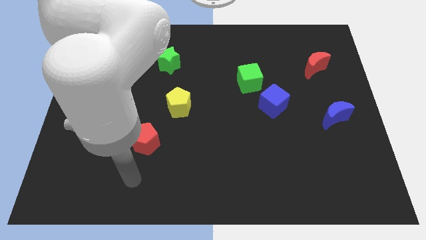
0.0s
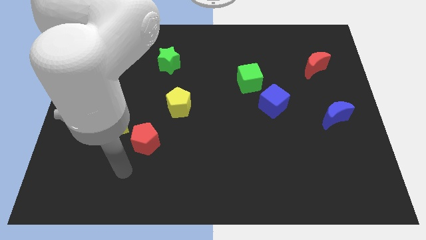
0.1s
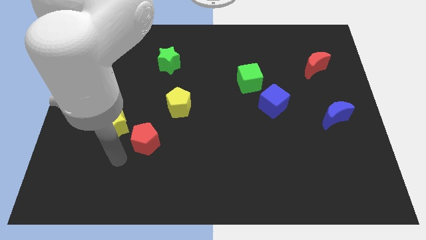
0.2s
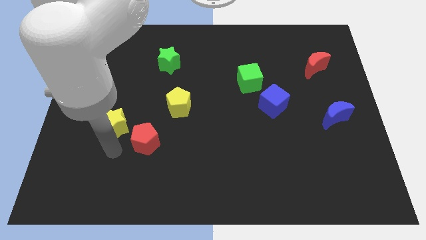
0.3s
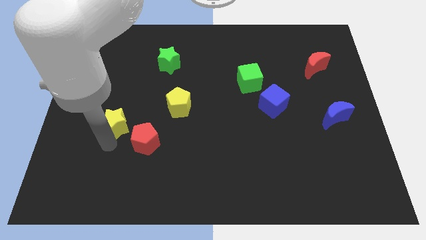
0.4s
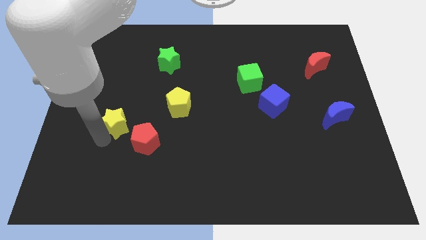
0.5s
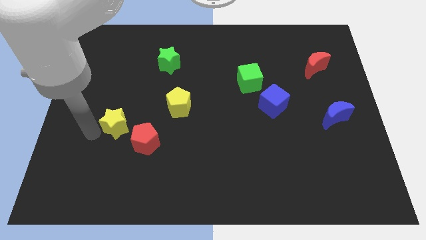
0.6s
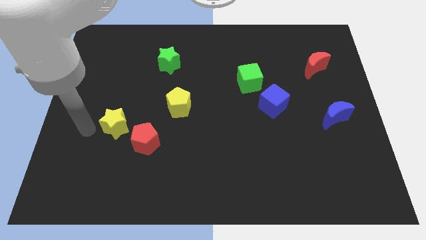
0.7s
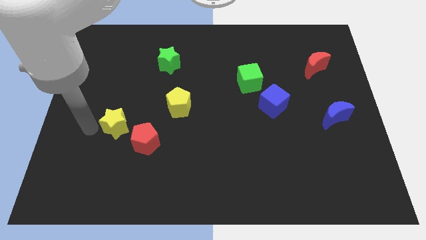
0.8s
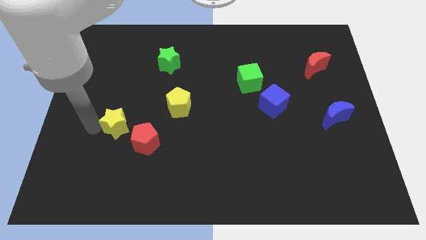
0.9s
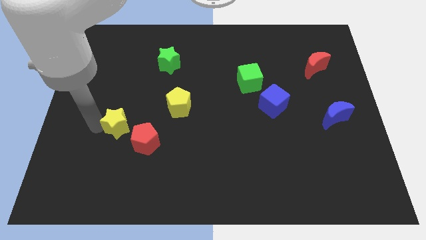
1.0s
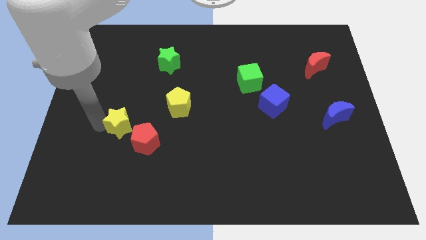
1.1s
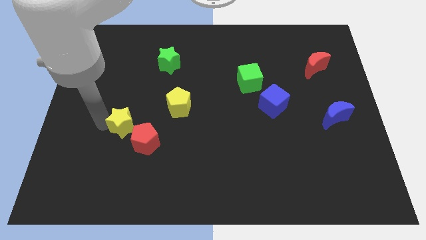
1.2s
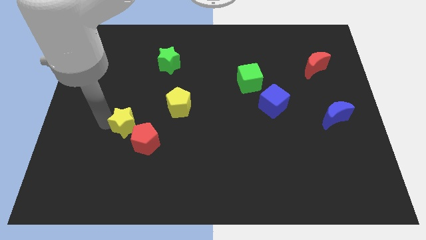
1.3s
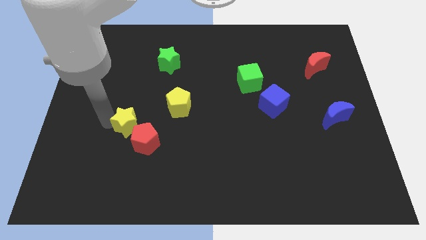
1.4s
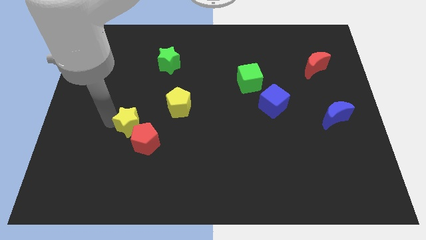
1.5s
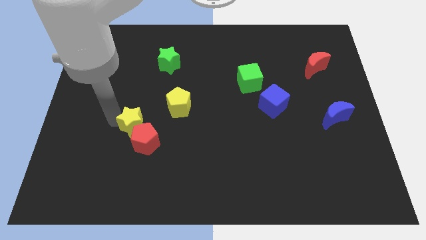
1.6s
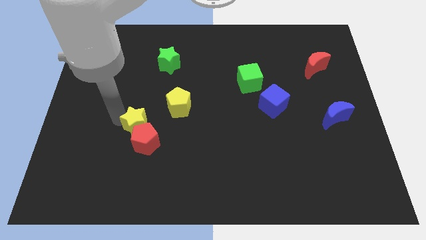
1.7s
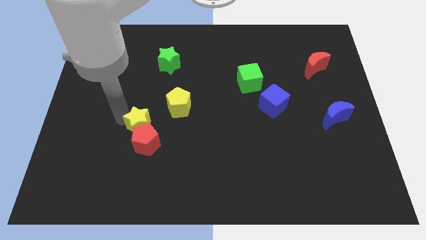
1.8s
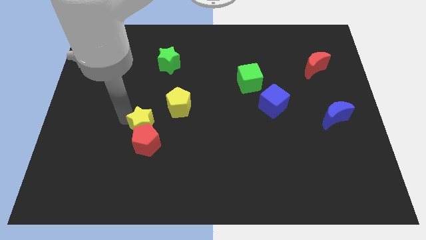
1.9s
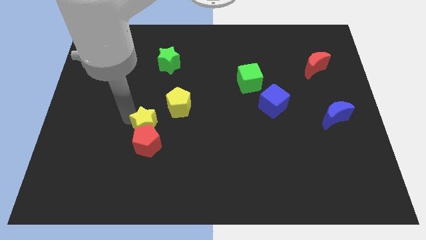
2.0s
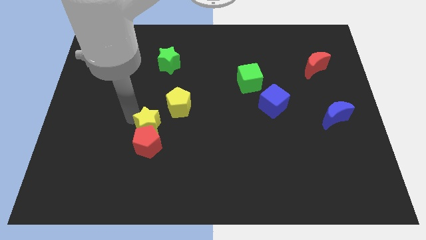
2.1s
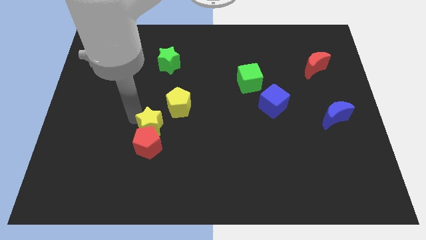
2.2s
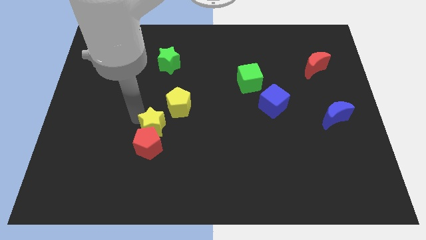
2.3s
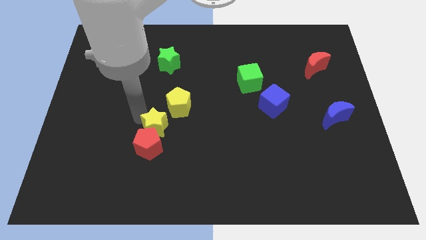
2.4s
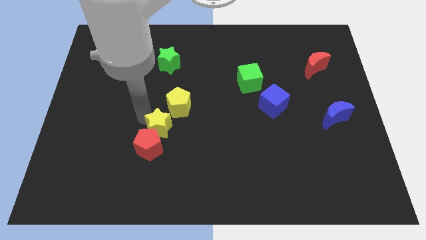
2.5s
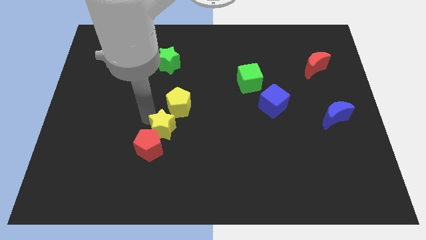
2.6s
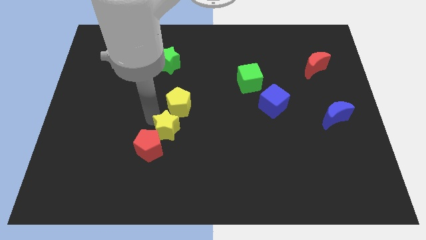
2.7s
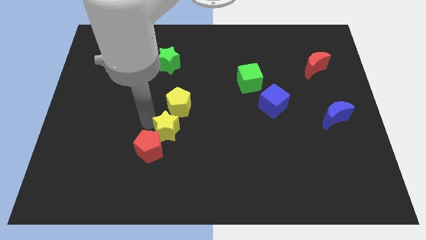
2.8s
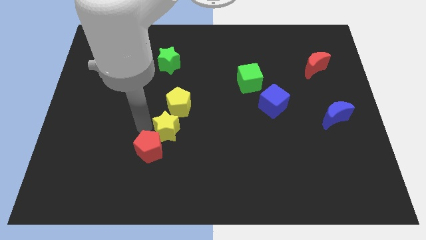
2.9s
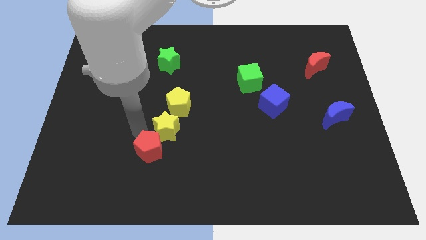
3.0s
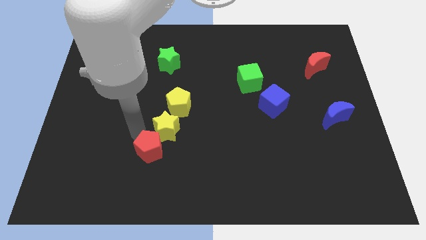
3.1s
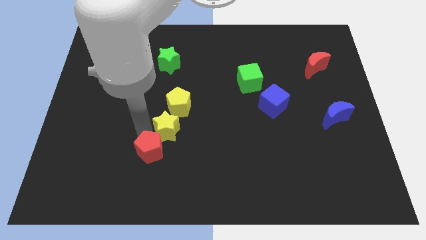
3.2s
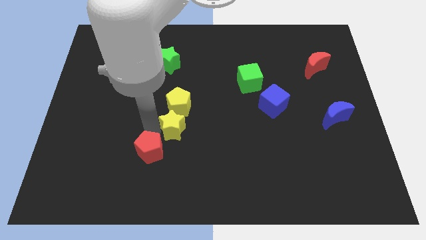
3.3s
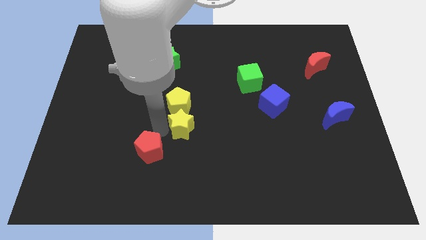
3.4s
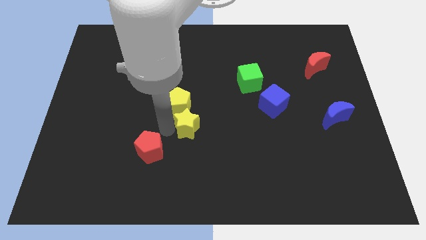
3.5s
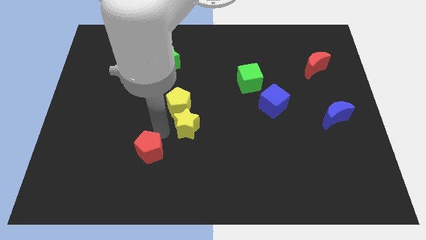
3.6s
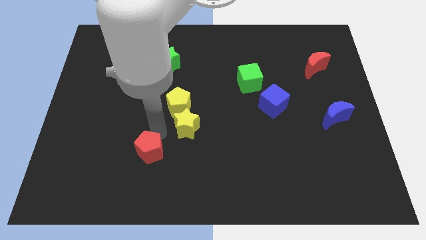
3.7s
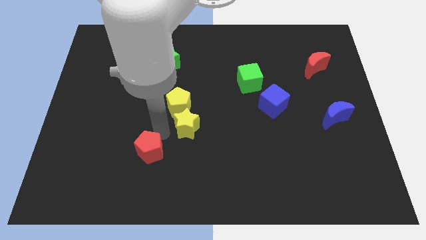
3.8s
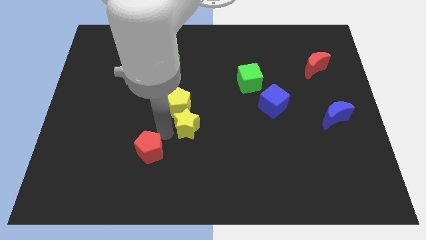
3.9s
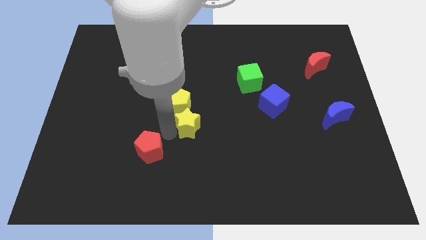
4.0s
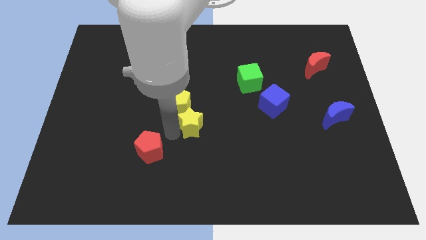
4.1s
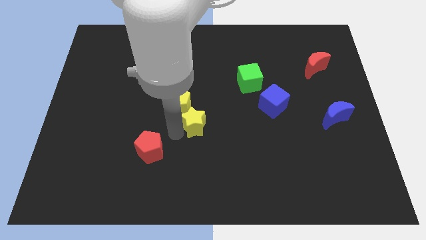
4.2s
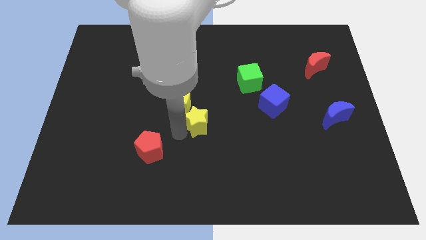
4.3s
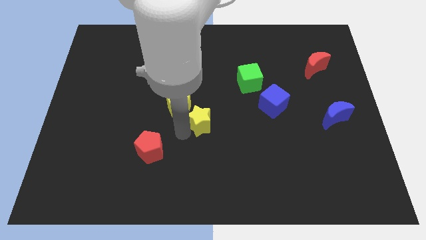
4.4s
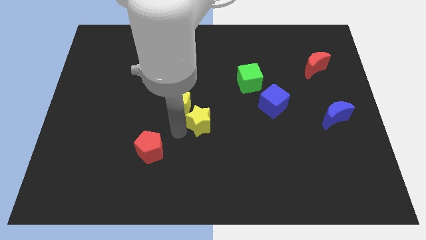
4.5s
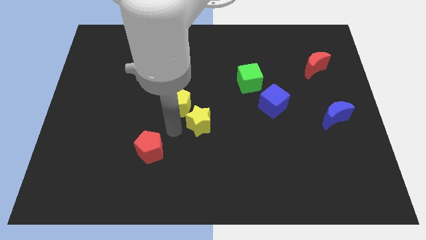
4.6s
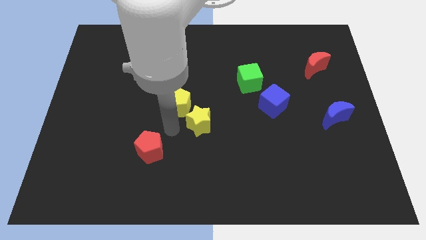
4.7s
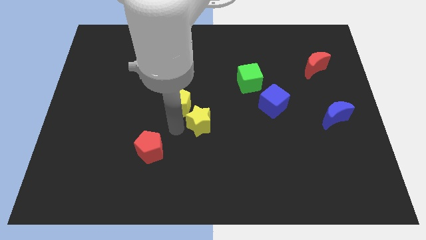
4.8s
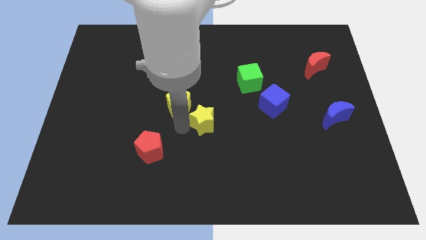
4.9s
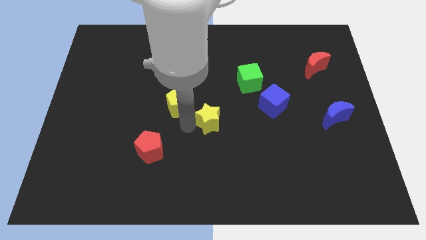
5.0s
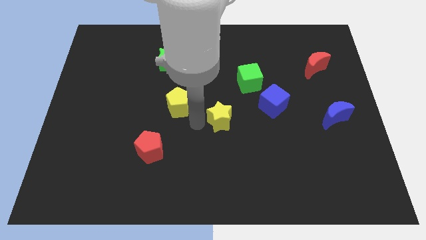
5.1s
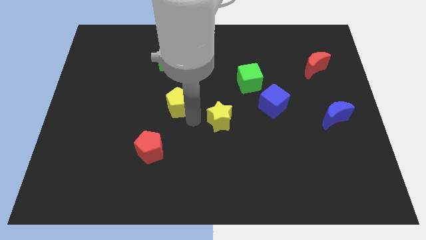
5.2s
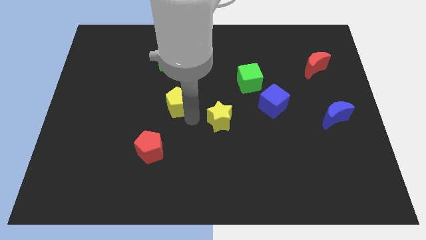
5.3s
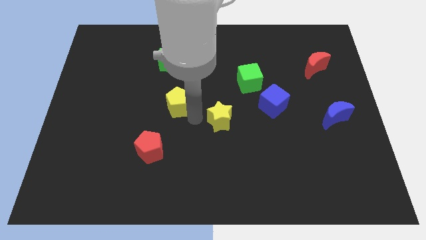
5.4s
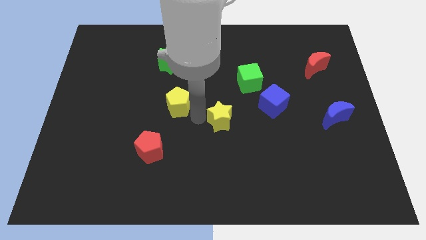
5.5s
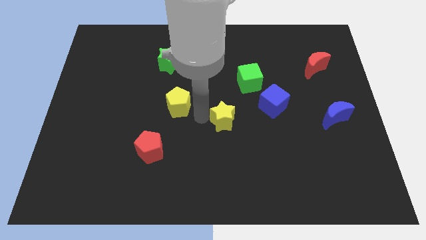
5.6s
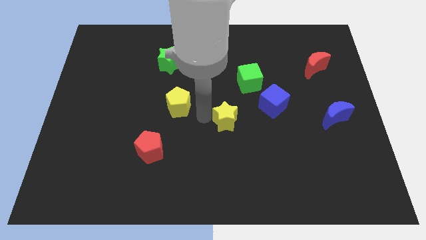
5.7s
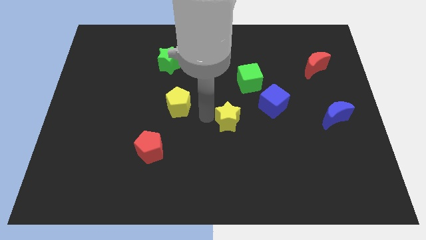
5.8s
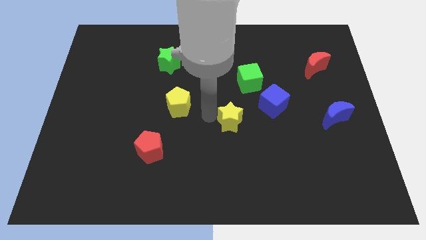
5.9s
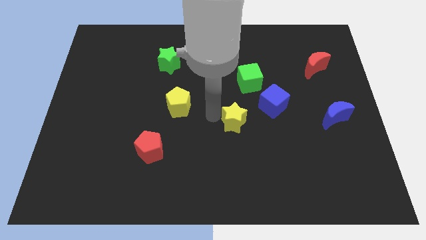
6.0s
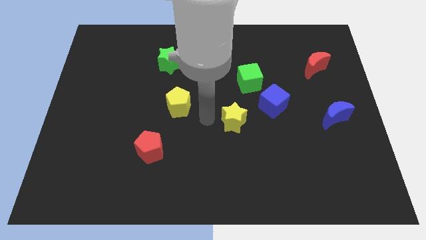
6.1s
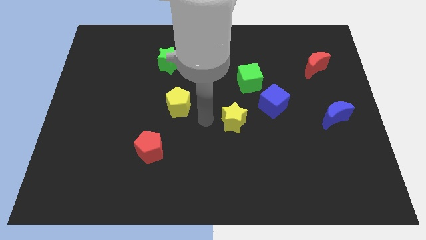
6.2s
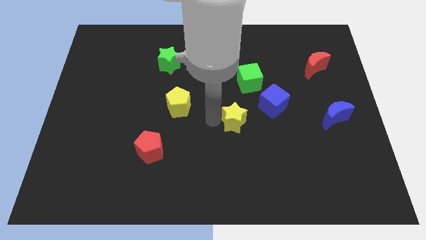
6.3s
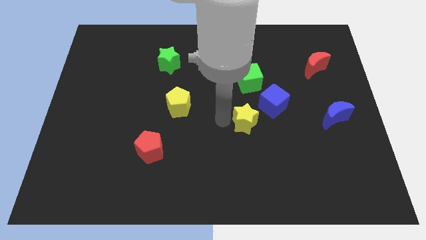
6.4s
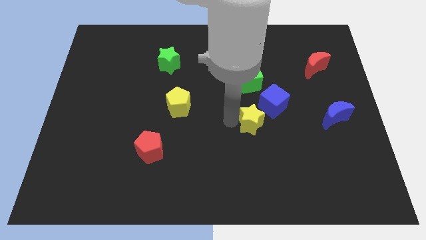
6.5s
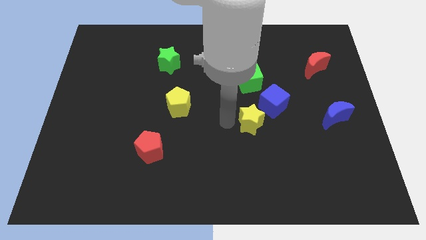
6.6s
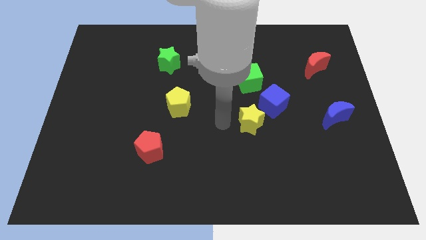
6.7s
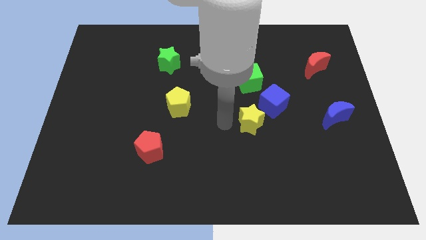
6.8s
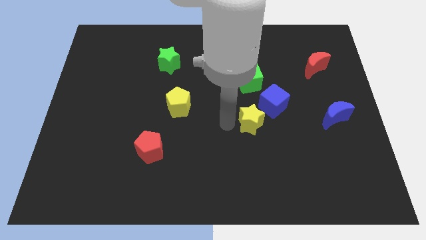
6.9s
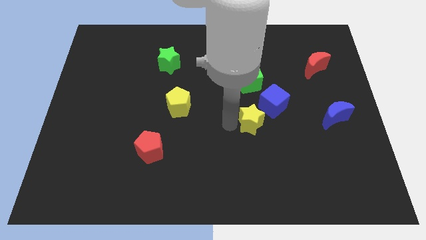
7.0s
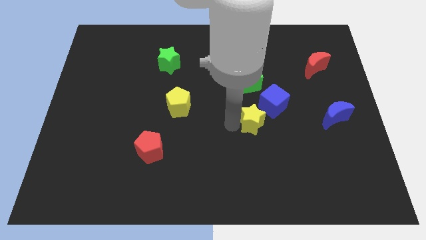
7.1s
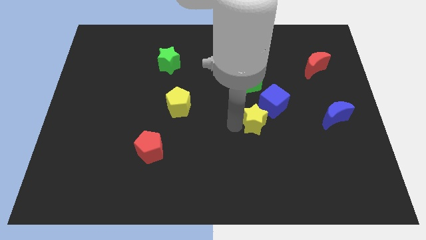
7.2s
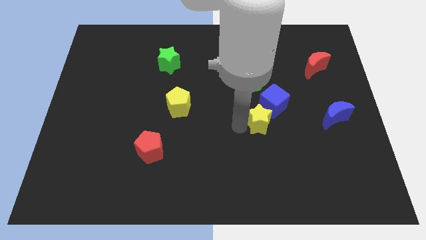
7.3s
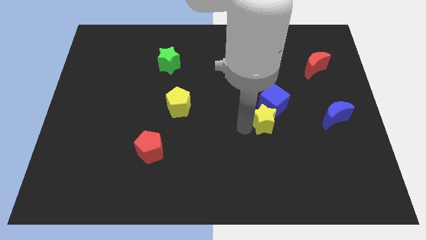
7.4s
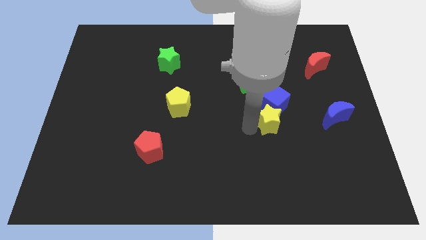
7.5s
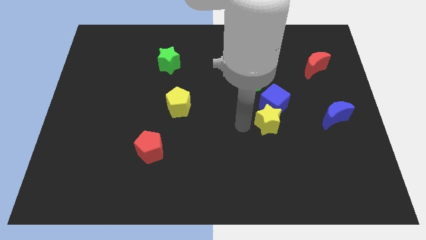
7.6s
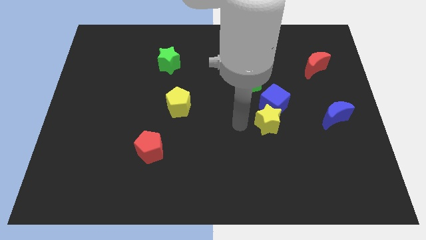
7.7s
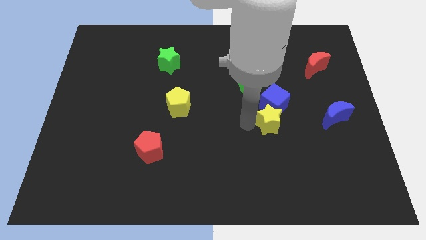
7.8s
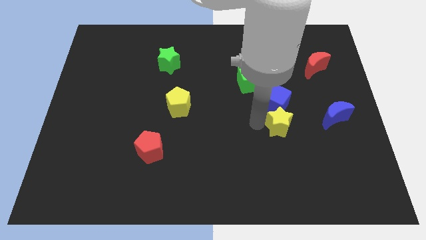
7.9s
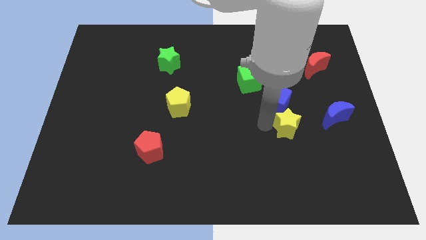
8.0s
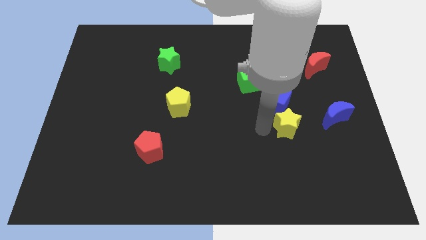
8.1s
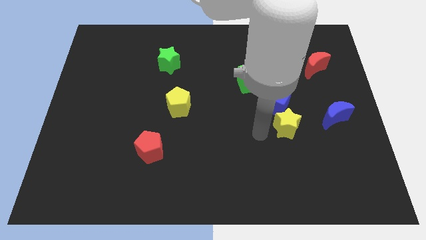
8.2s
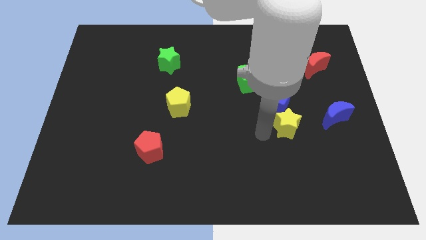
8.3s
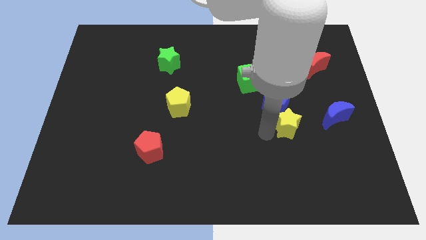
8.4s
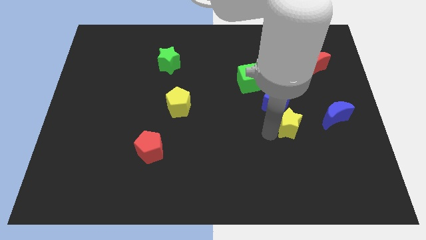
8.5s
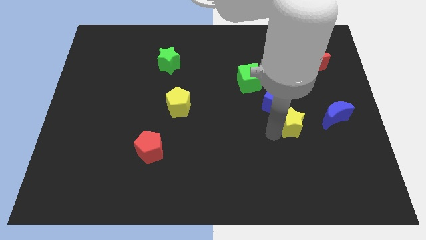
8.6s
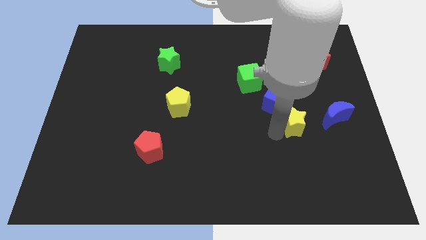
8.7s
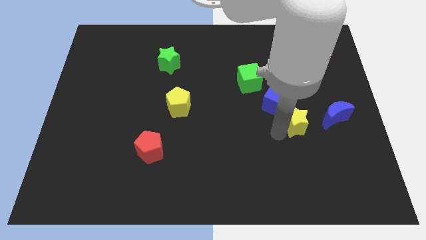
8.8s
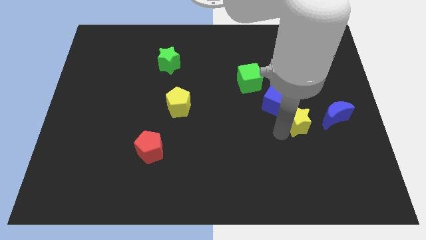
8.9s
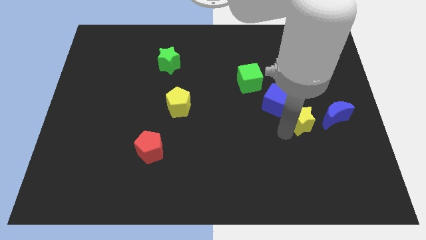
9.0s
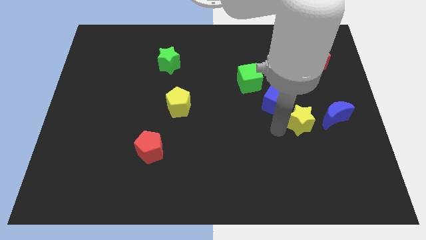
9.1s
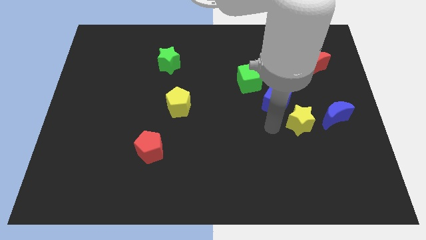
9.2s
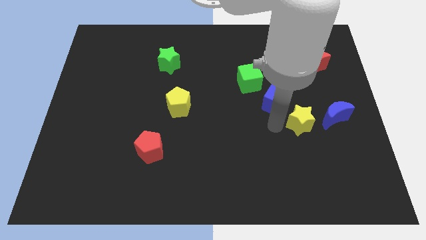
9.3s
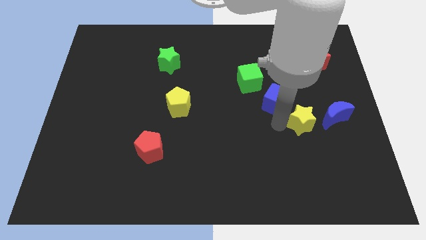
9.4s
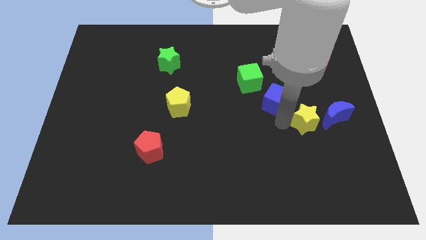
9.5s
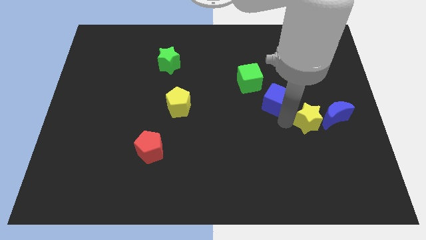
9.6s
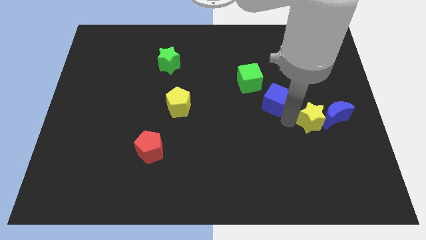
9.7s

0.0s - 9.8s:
put the yellow star close to the blue moon
